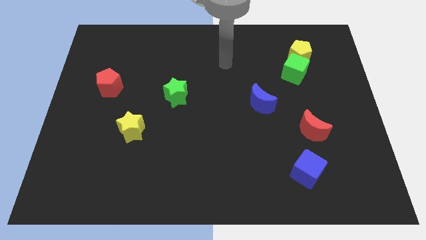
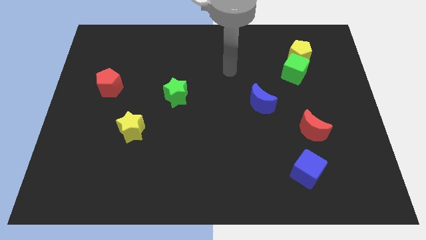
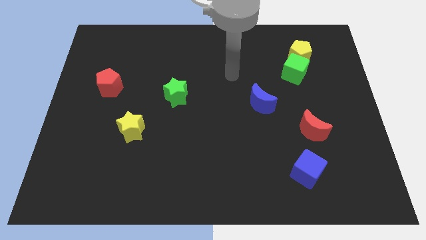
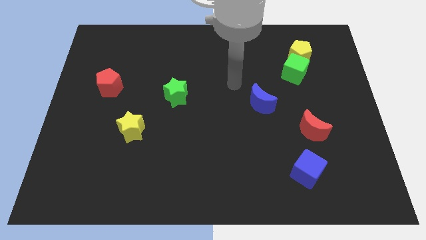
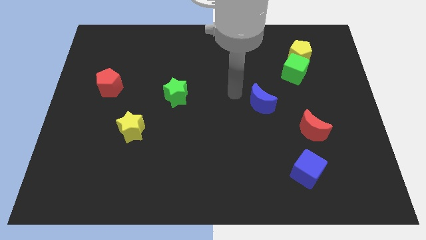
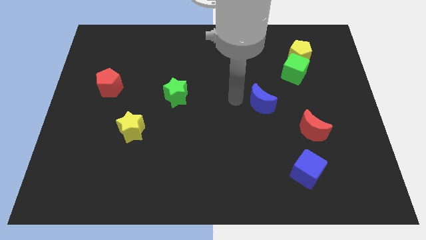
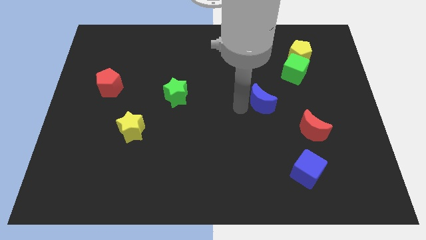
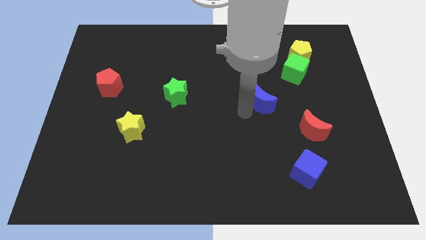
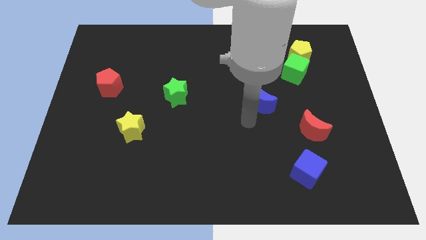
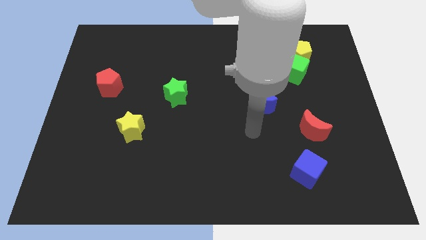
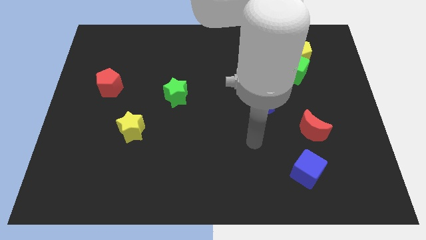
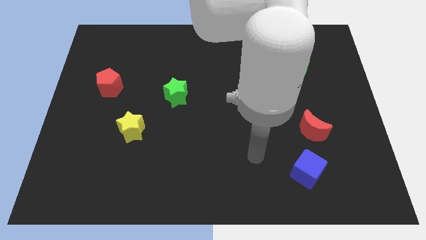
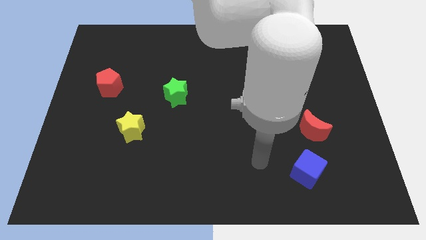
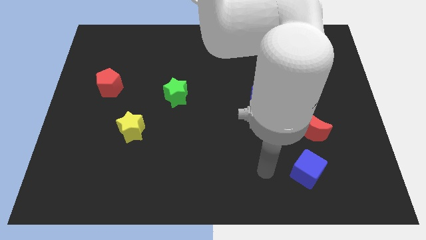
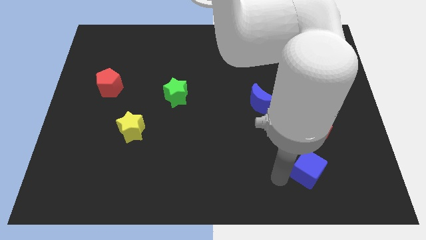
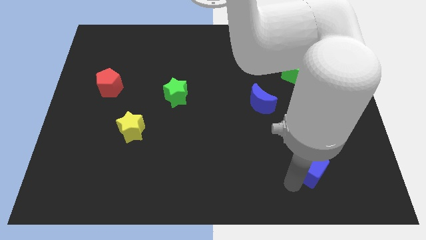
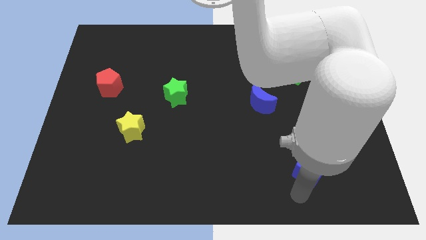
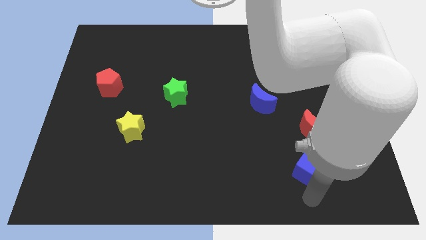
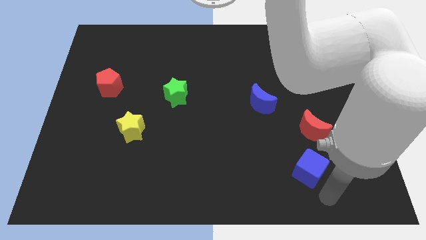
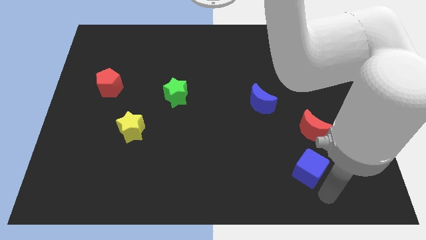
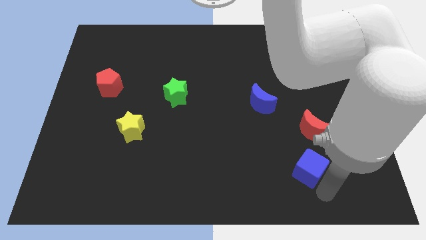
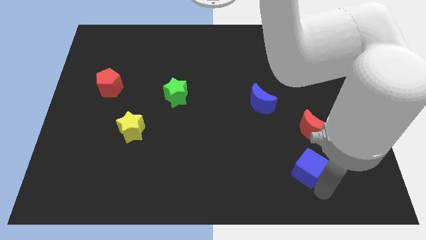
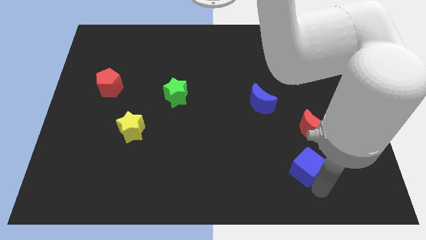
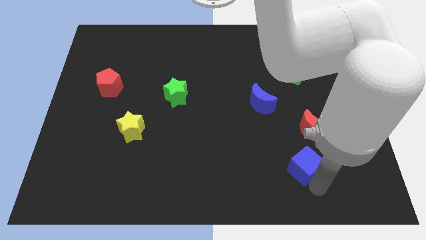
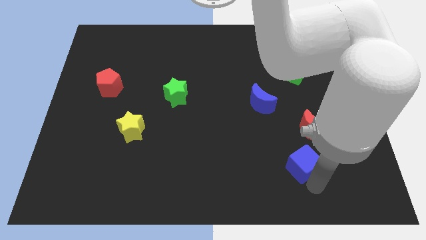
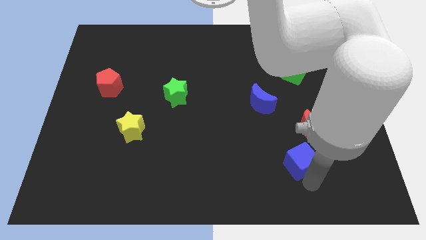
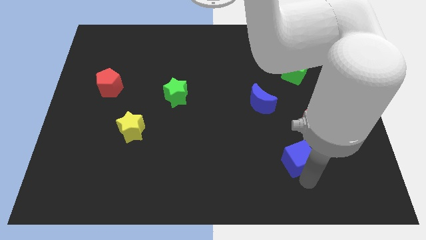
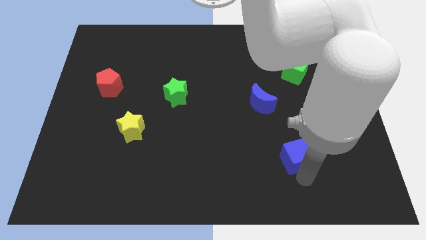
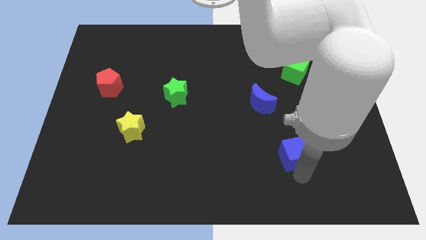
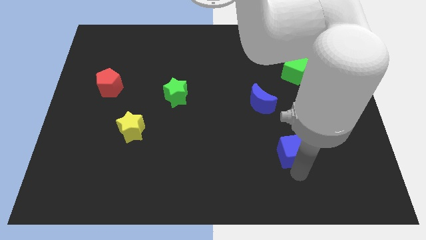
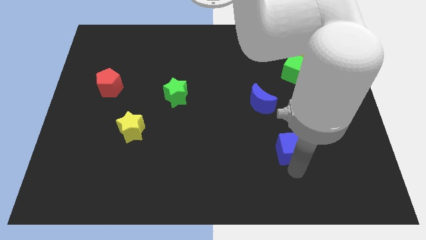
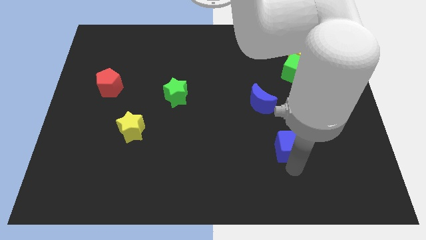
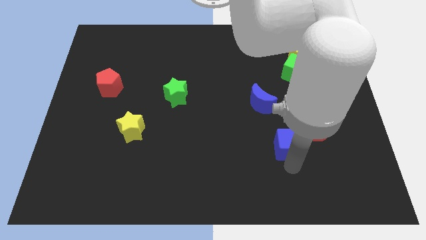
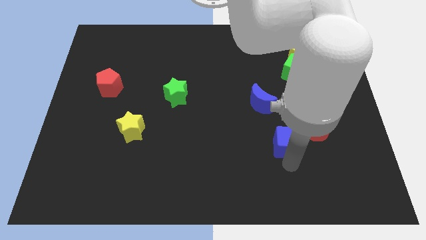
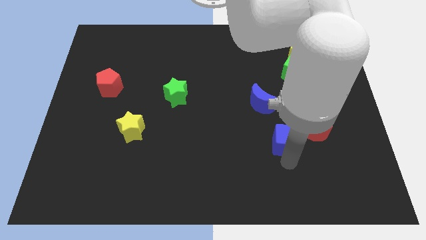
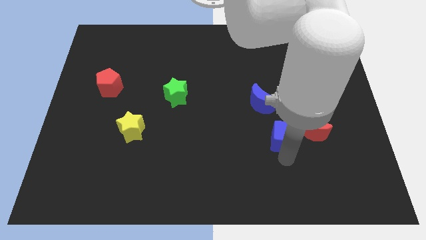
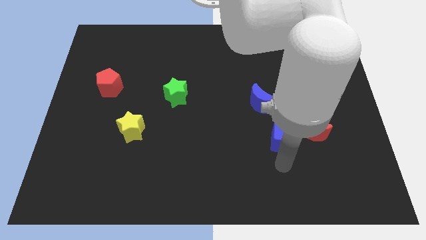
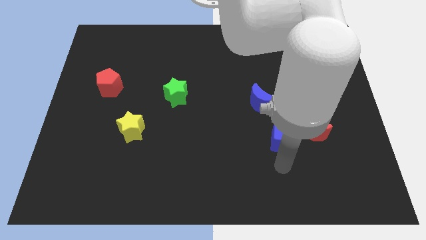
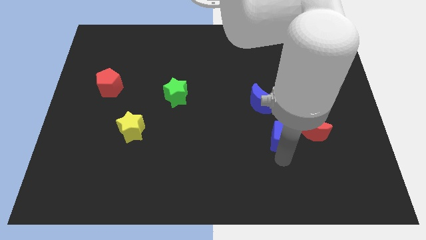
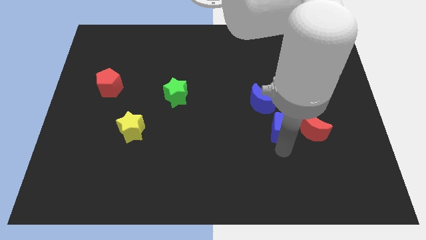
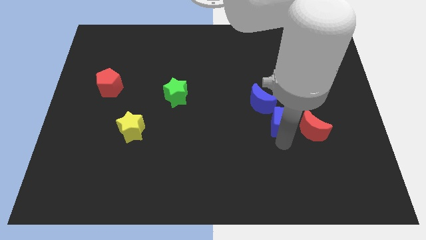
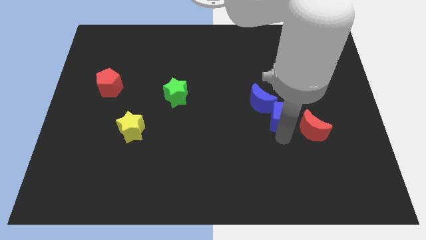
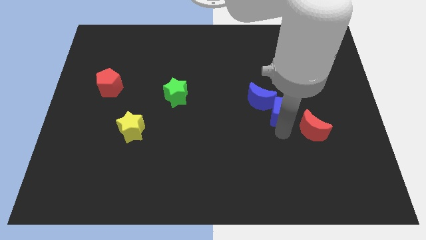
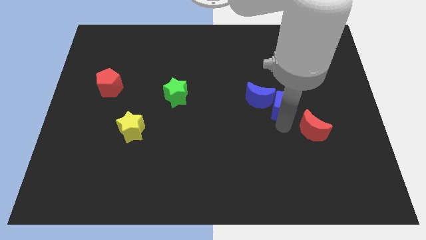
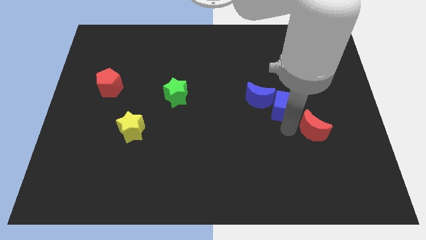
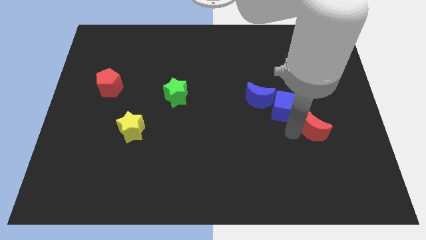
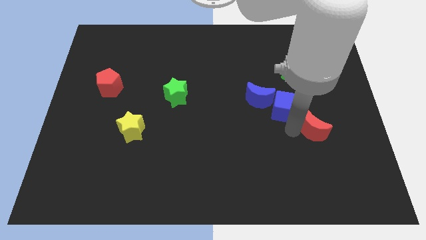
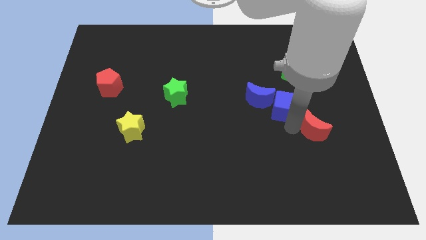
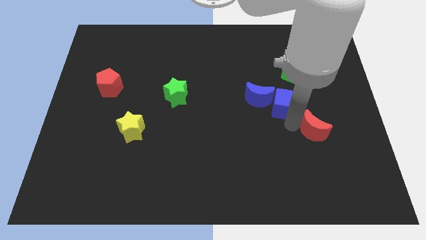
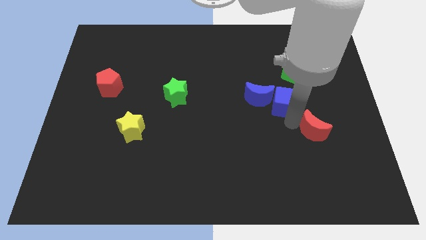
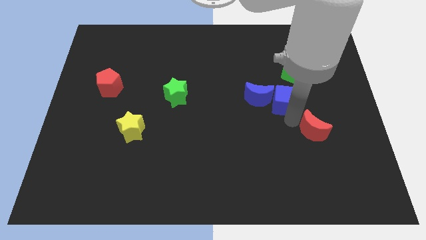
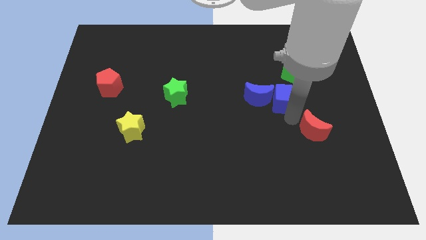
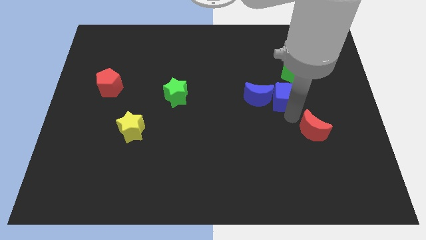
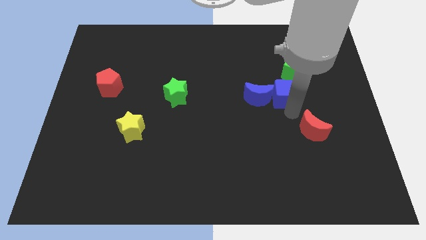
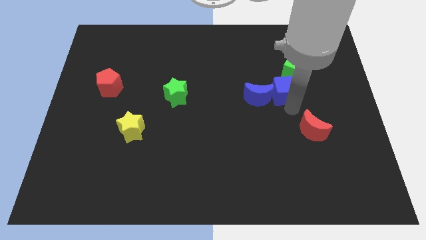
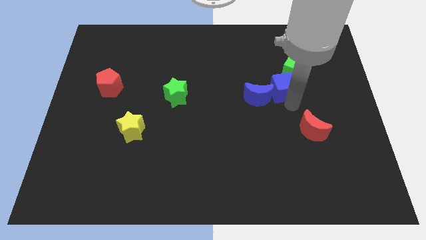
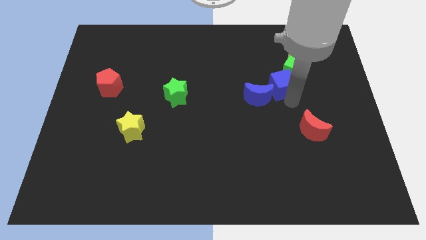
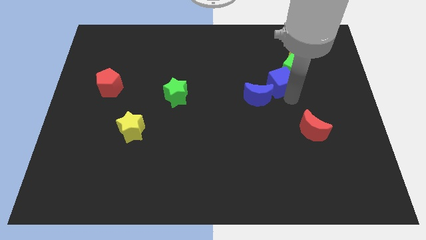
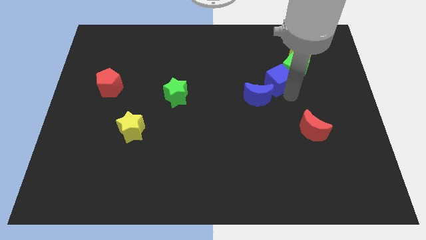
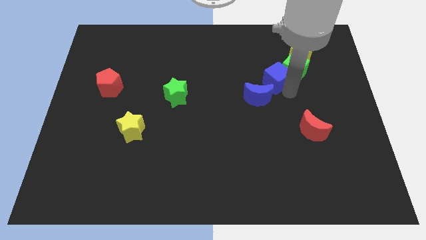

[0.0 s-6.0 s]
move the blue cube above the blue moon

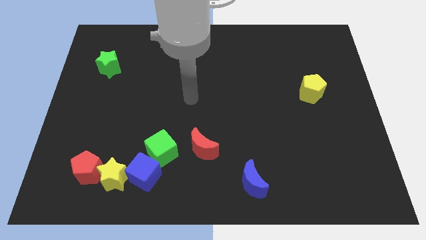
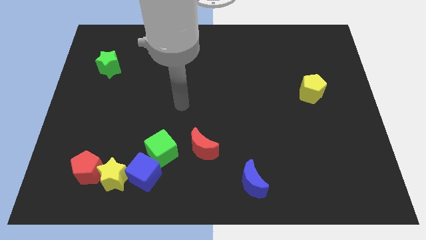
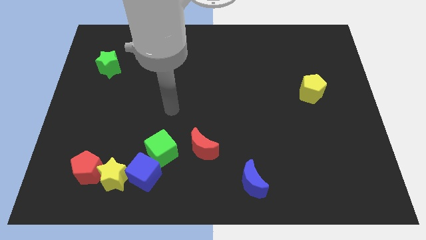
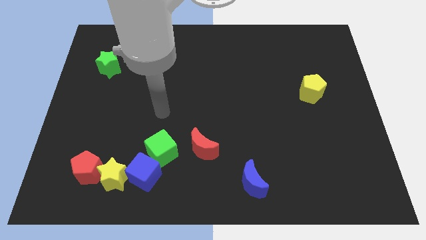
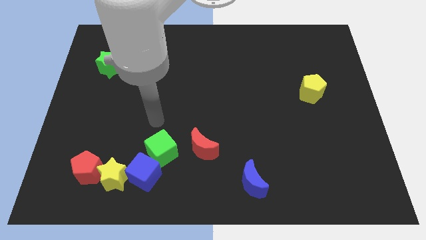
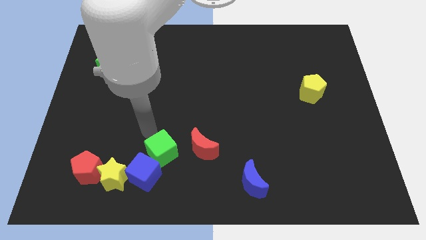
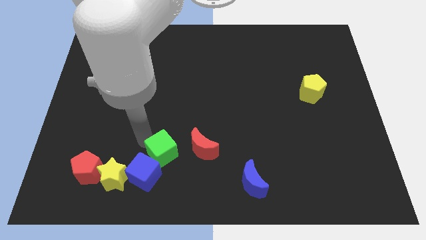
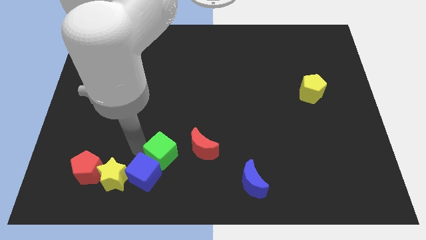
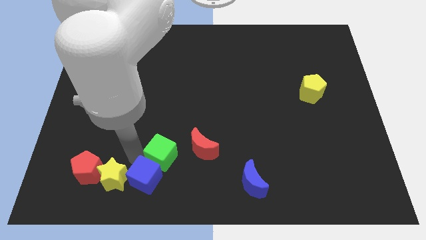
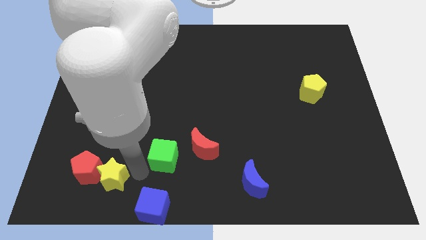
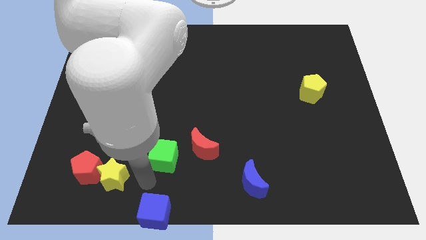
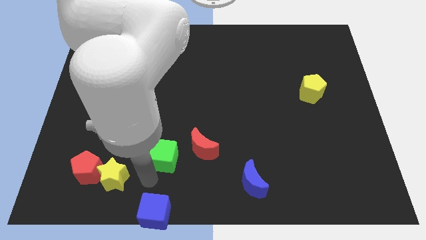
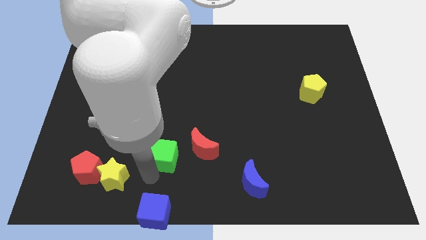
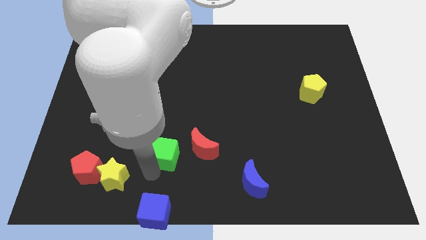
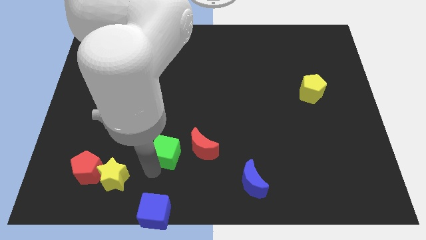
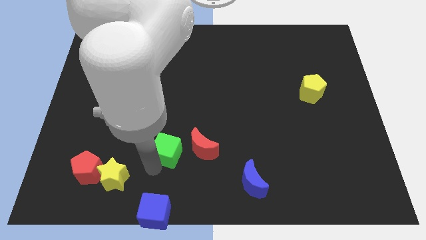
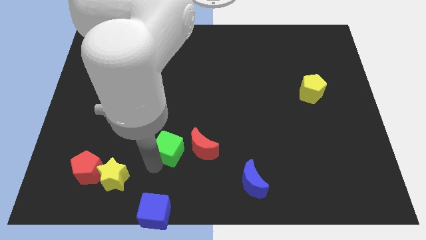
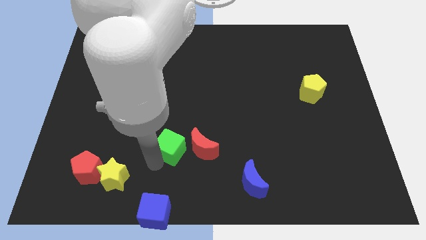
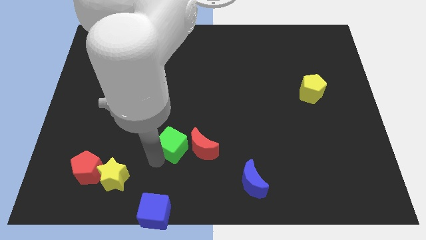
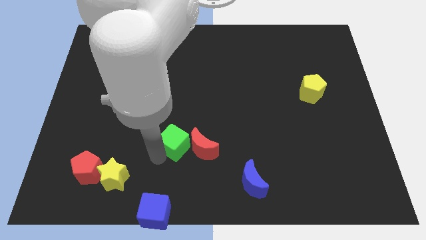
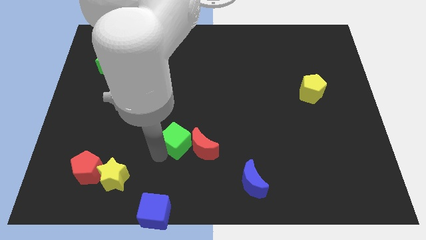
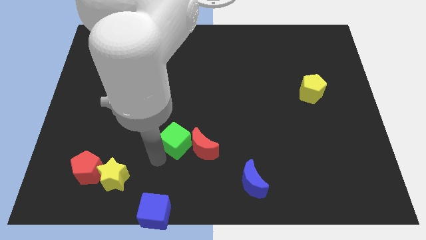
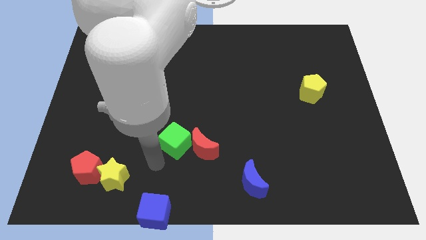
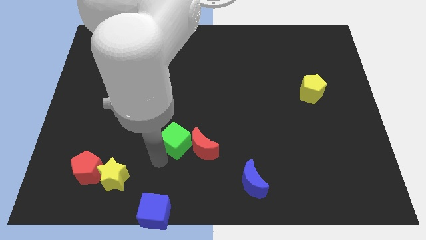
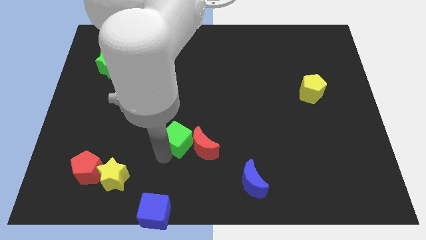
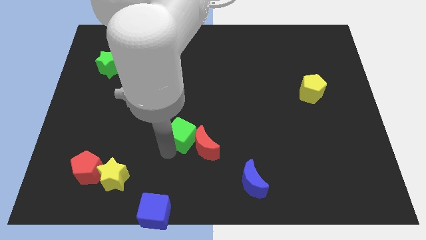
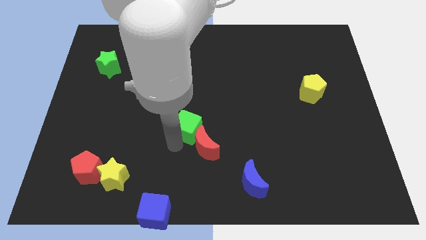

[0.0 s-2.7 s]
move the green cube to the top of the red moon
